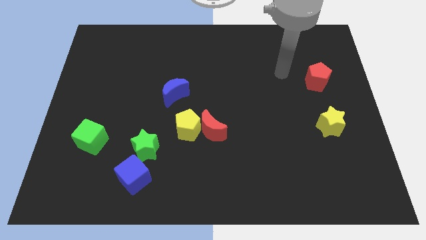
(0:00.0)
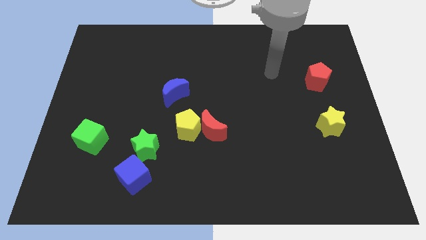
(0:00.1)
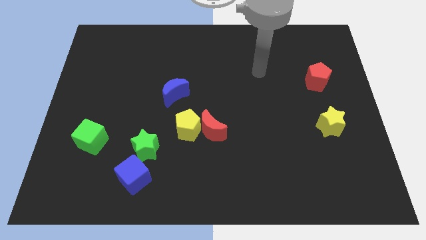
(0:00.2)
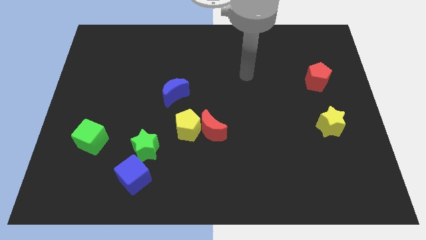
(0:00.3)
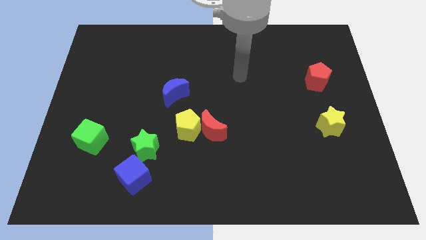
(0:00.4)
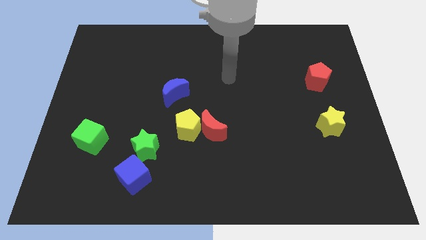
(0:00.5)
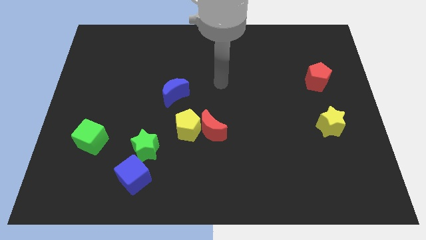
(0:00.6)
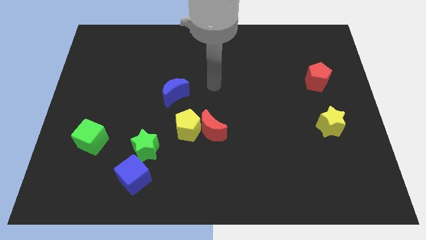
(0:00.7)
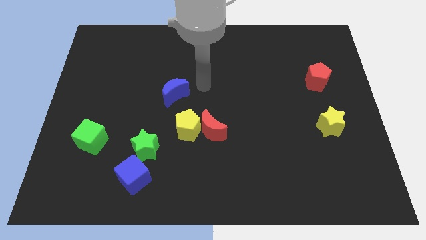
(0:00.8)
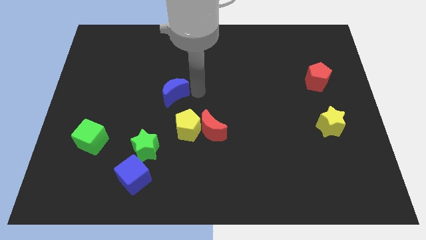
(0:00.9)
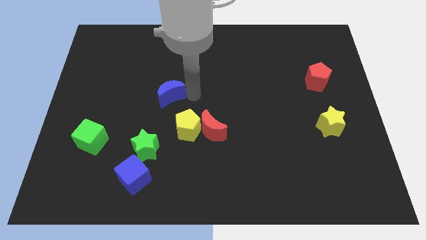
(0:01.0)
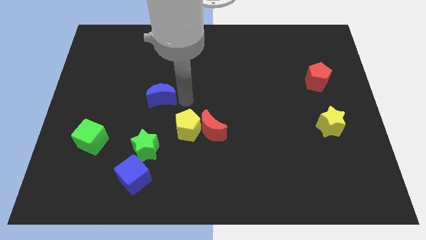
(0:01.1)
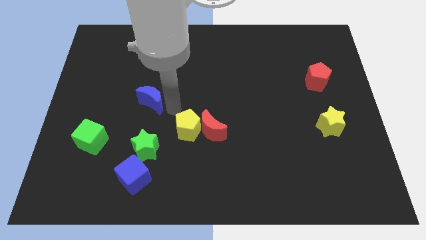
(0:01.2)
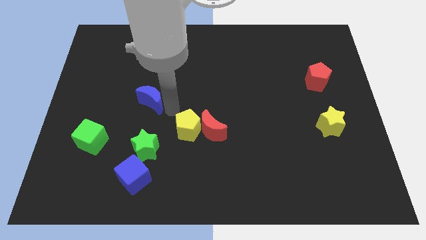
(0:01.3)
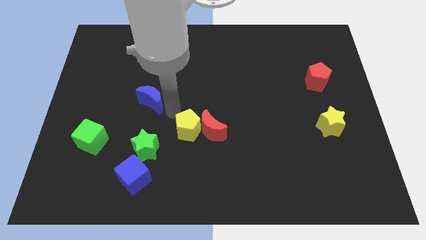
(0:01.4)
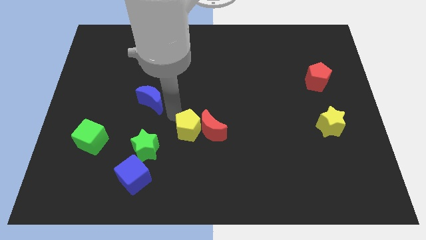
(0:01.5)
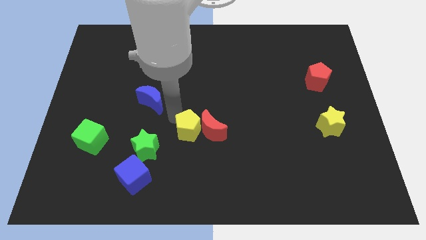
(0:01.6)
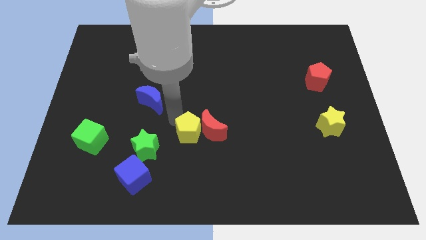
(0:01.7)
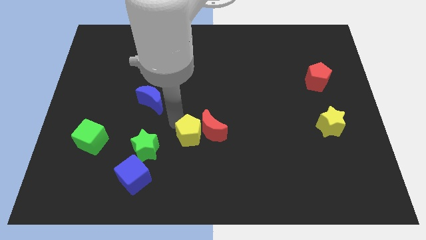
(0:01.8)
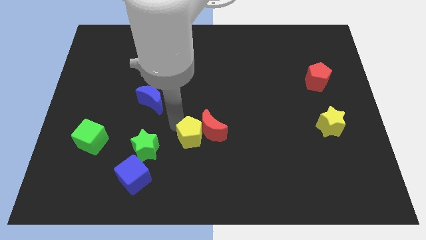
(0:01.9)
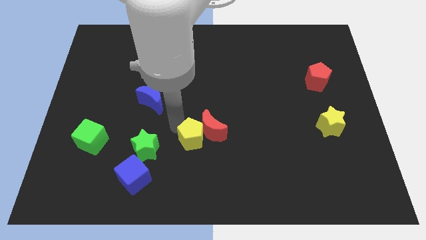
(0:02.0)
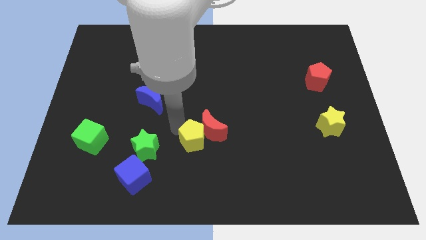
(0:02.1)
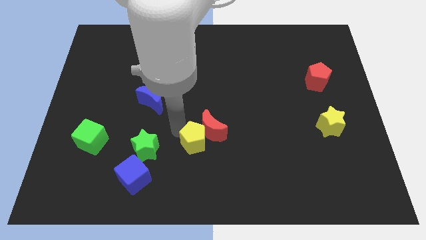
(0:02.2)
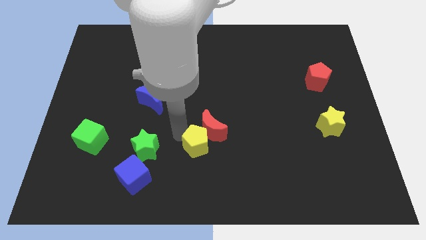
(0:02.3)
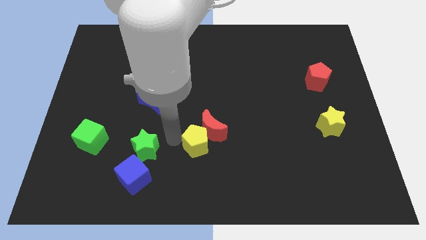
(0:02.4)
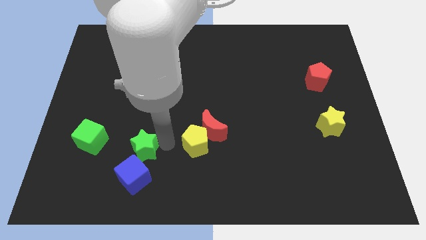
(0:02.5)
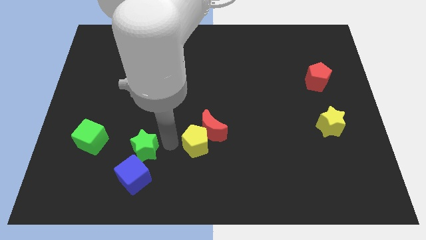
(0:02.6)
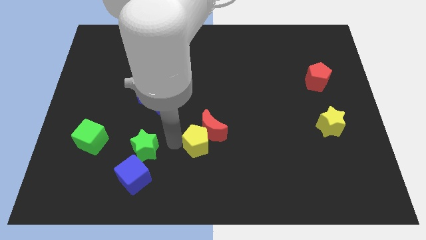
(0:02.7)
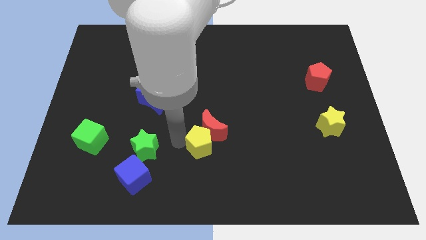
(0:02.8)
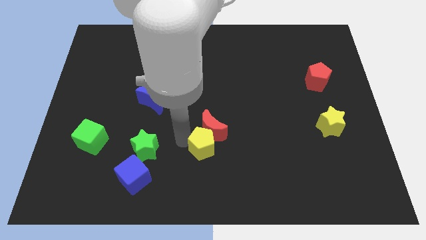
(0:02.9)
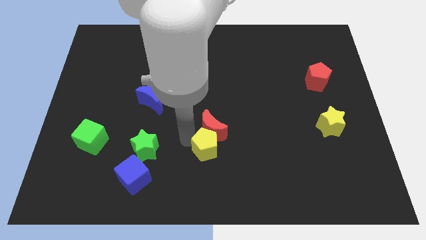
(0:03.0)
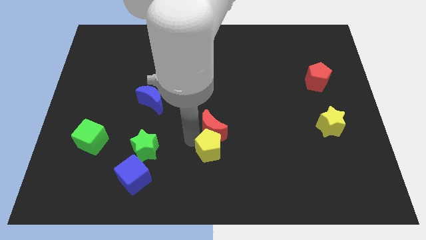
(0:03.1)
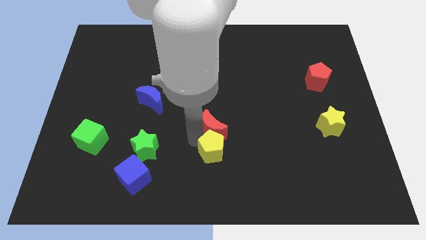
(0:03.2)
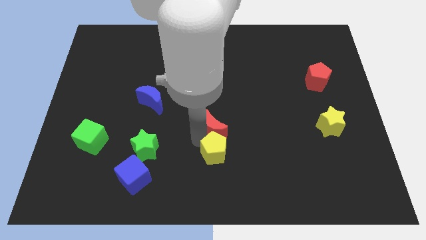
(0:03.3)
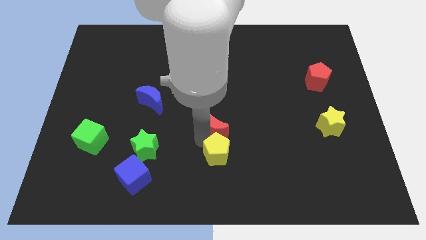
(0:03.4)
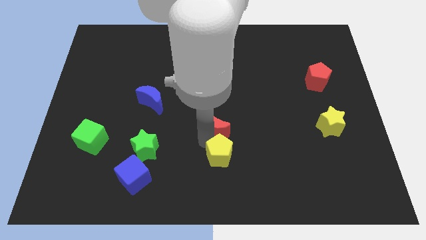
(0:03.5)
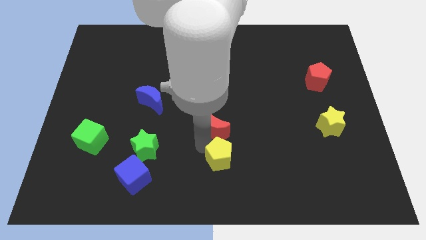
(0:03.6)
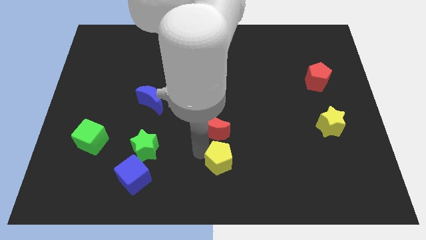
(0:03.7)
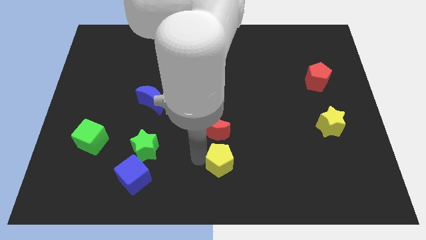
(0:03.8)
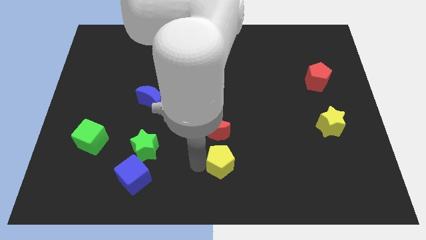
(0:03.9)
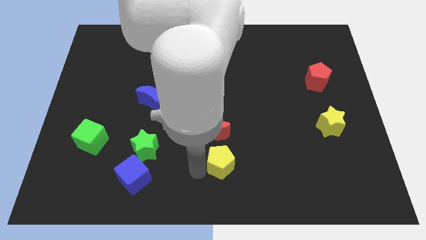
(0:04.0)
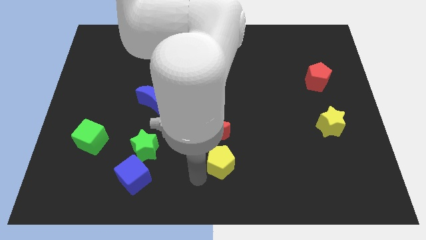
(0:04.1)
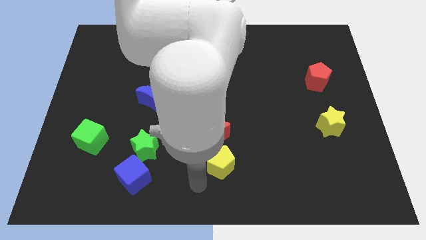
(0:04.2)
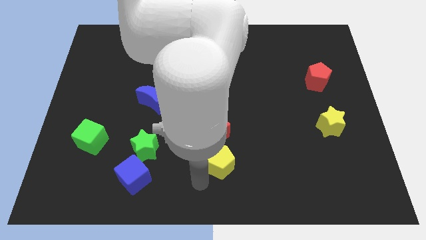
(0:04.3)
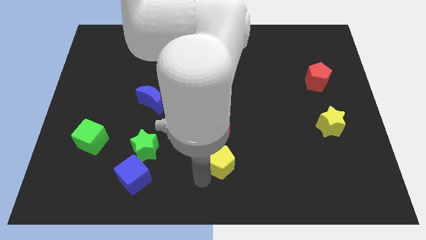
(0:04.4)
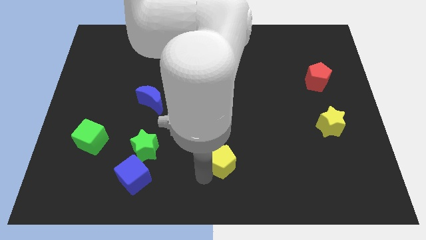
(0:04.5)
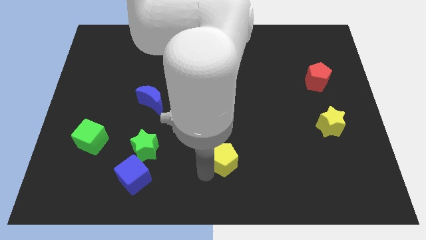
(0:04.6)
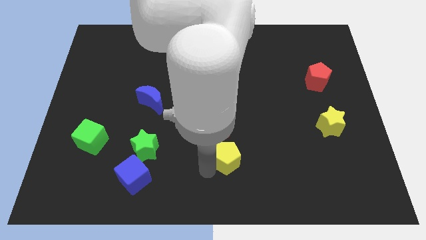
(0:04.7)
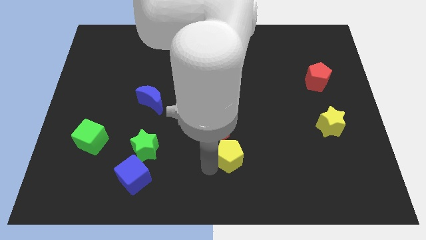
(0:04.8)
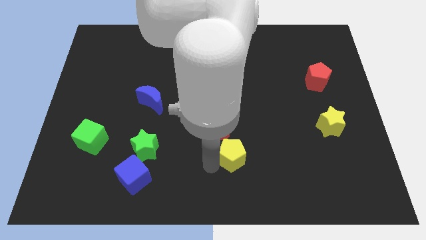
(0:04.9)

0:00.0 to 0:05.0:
move the yellow pentagon to the right a little

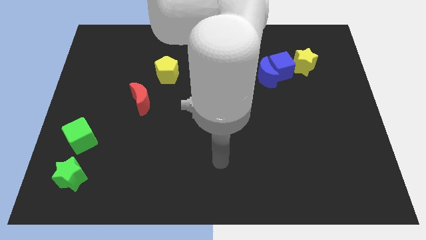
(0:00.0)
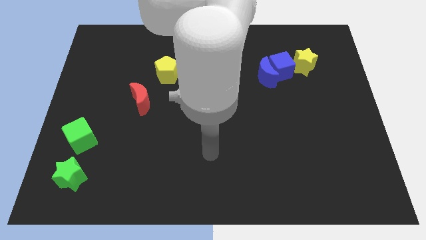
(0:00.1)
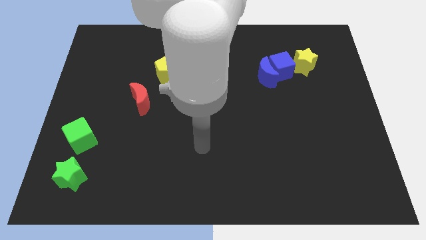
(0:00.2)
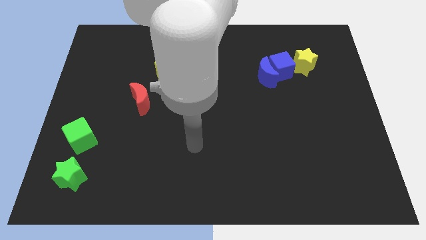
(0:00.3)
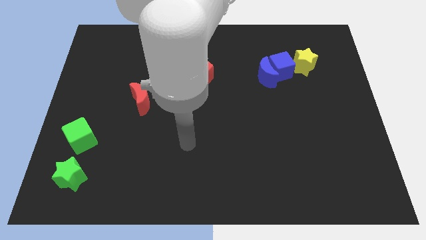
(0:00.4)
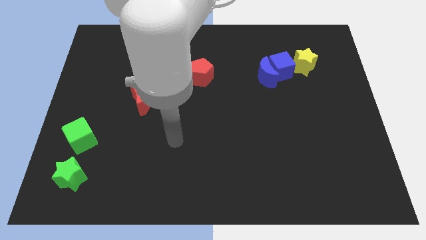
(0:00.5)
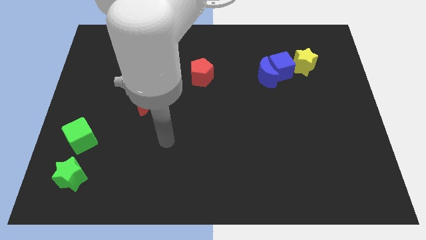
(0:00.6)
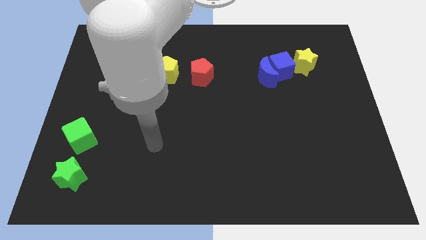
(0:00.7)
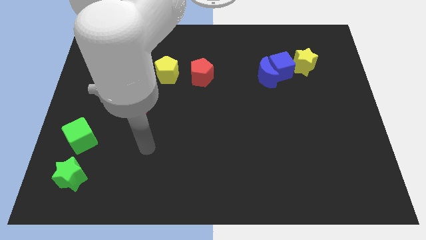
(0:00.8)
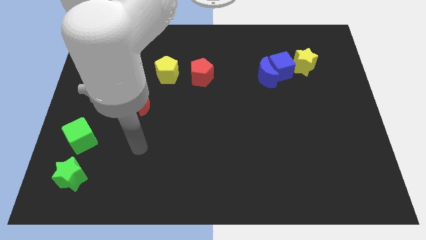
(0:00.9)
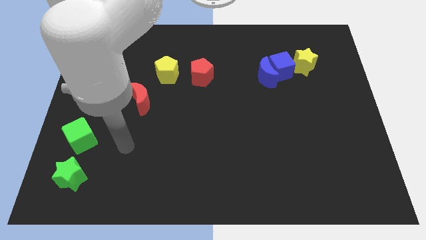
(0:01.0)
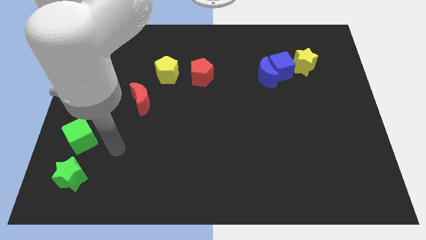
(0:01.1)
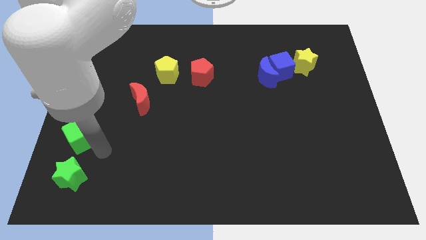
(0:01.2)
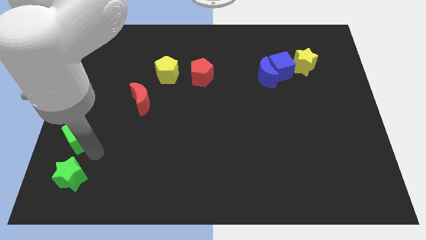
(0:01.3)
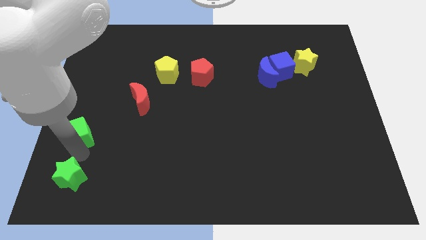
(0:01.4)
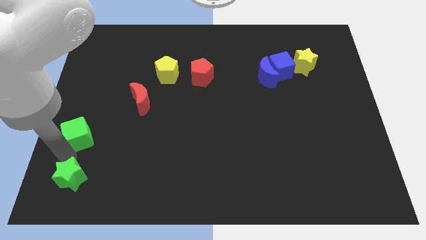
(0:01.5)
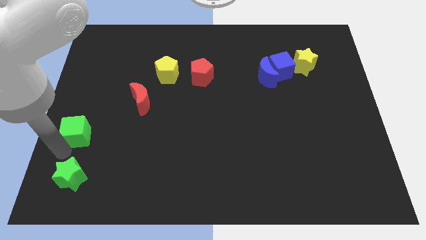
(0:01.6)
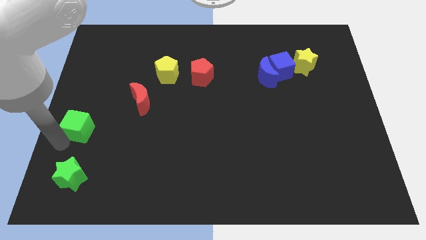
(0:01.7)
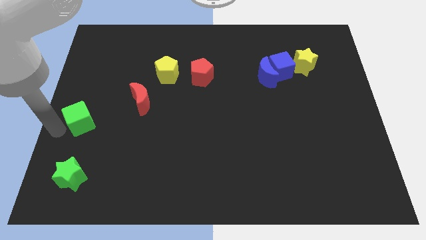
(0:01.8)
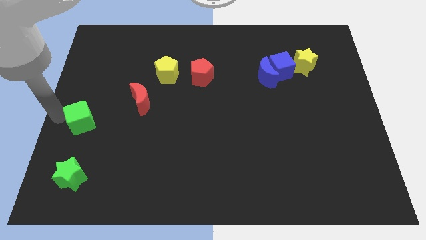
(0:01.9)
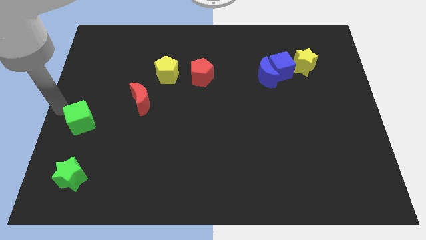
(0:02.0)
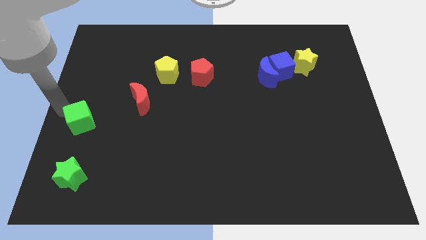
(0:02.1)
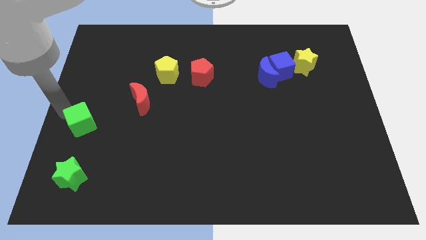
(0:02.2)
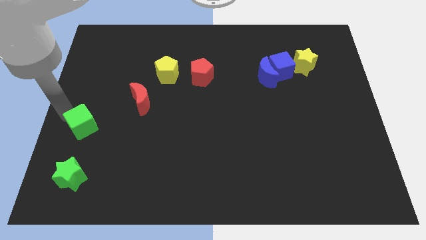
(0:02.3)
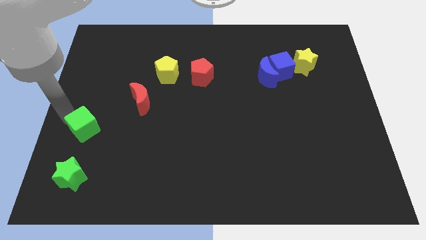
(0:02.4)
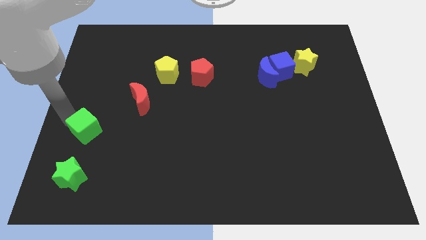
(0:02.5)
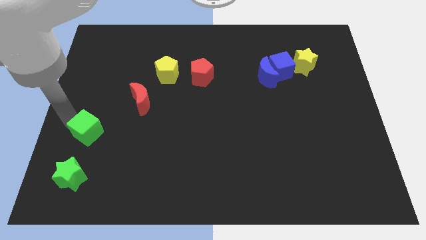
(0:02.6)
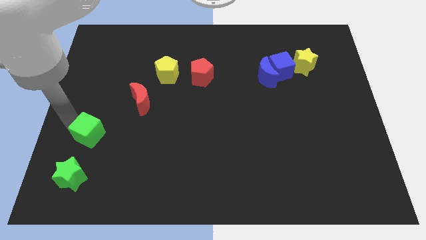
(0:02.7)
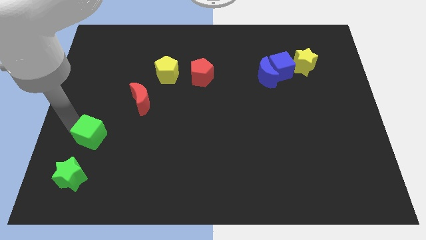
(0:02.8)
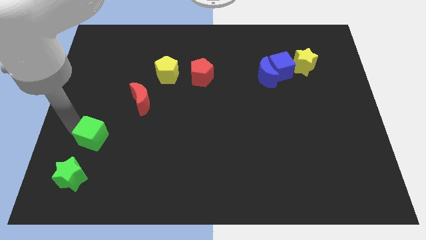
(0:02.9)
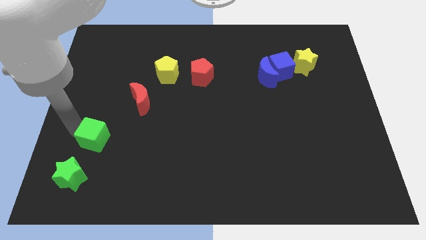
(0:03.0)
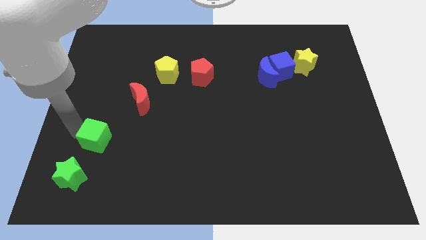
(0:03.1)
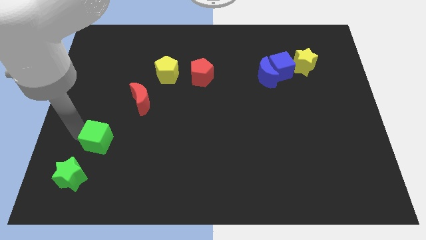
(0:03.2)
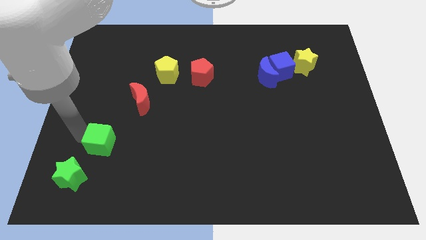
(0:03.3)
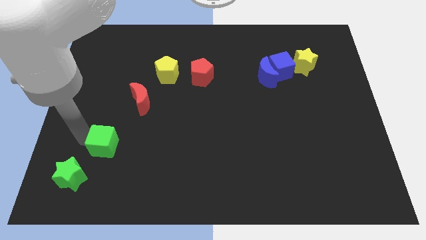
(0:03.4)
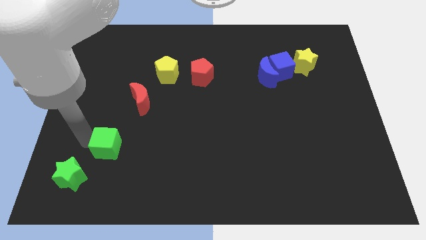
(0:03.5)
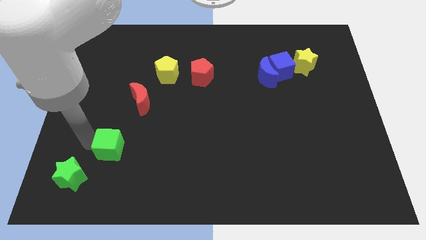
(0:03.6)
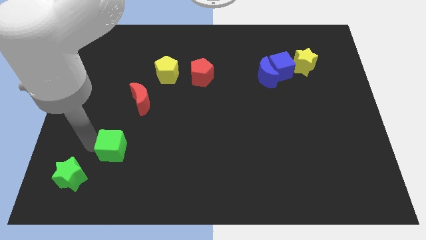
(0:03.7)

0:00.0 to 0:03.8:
slightly push the green cube right
